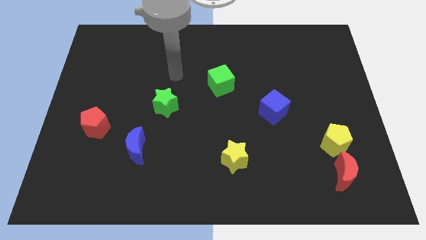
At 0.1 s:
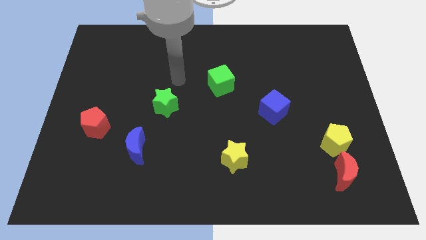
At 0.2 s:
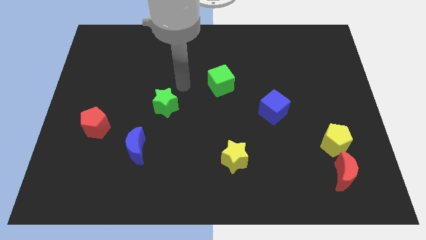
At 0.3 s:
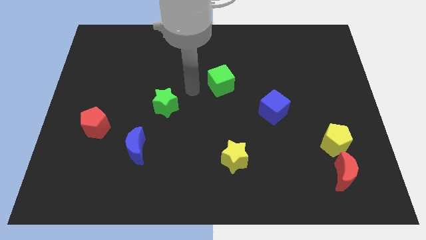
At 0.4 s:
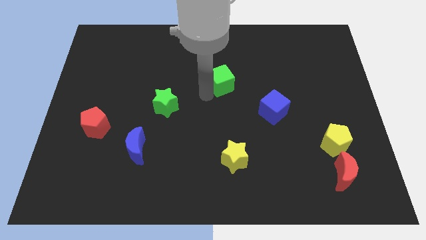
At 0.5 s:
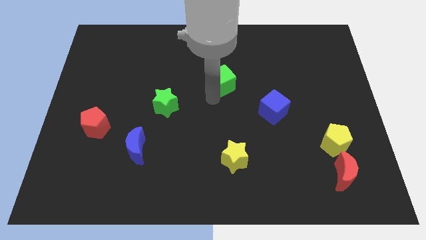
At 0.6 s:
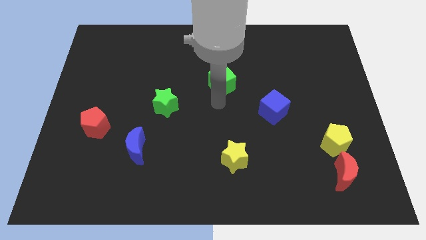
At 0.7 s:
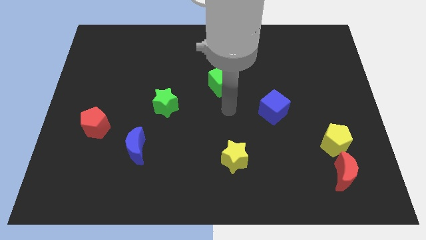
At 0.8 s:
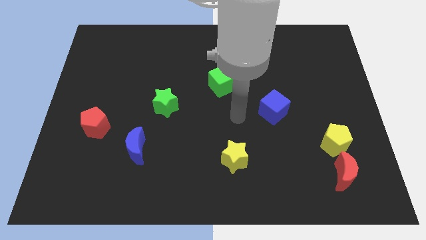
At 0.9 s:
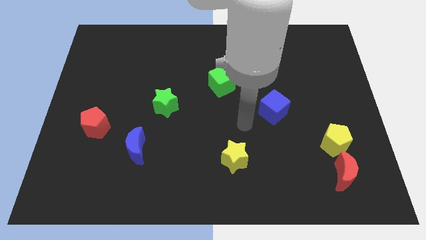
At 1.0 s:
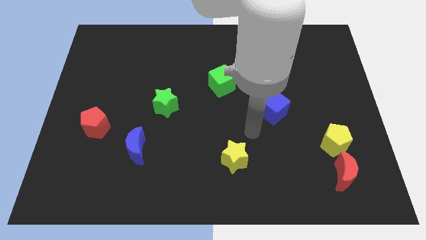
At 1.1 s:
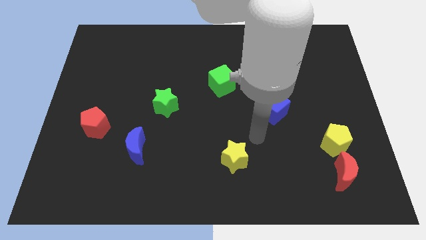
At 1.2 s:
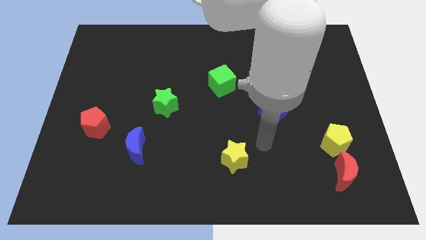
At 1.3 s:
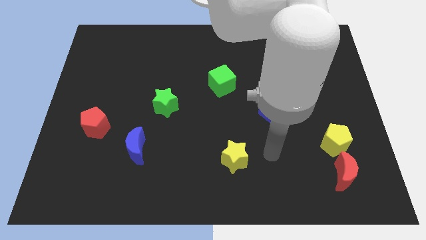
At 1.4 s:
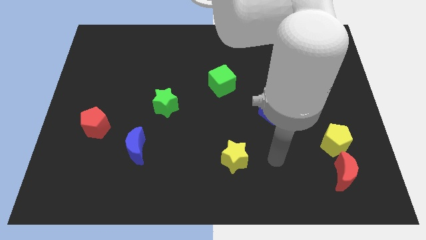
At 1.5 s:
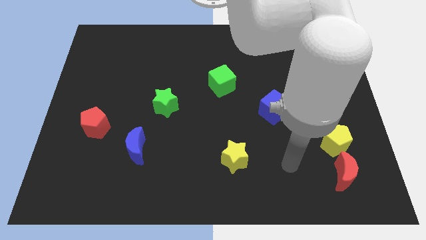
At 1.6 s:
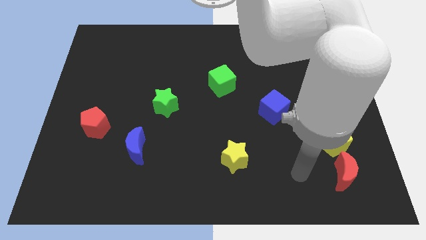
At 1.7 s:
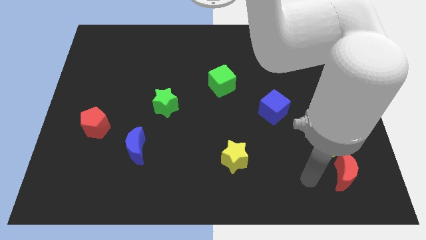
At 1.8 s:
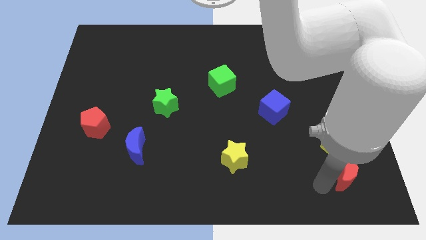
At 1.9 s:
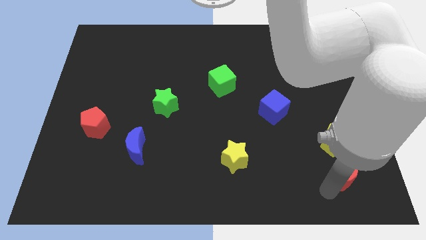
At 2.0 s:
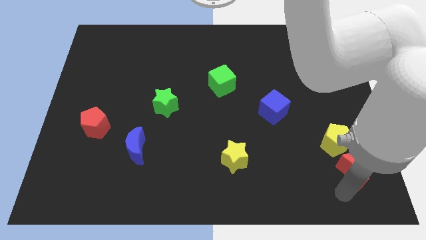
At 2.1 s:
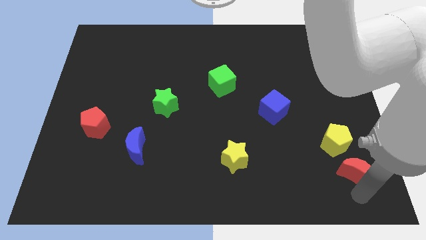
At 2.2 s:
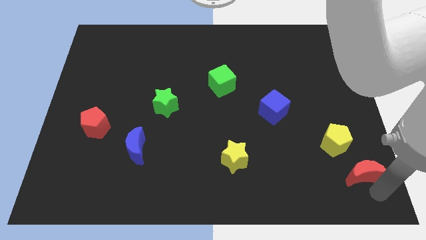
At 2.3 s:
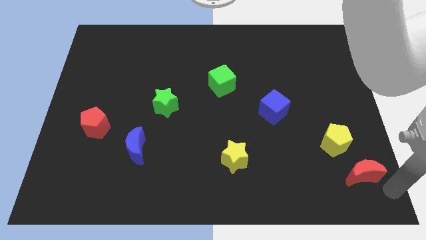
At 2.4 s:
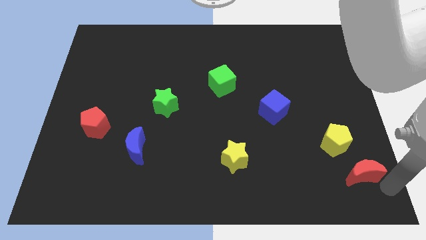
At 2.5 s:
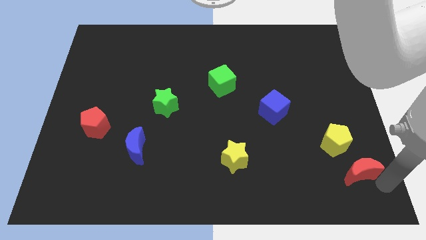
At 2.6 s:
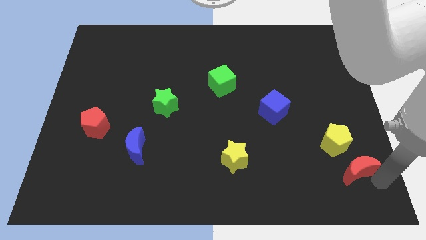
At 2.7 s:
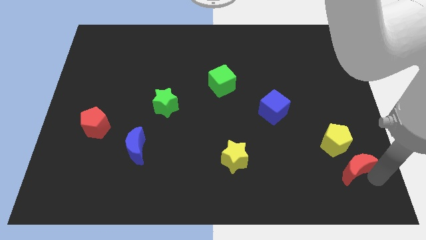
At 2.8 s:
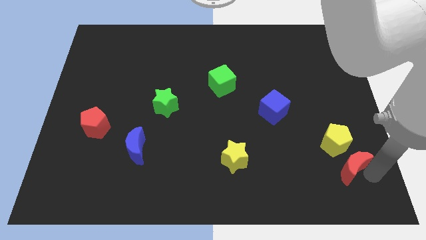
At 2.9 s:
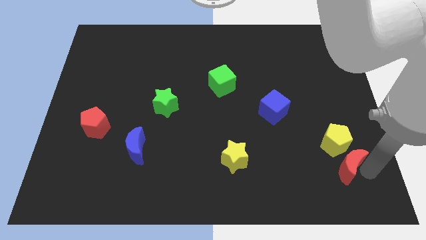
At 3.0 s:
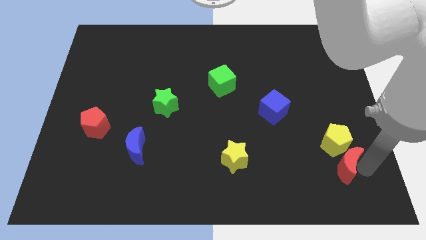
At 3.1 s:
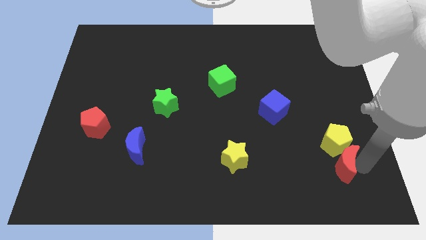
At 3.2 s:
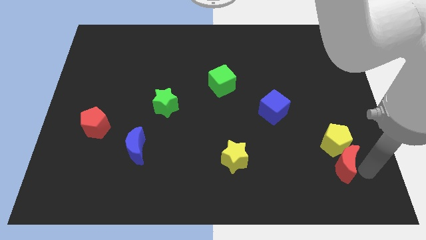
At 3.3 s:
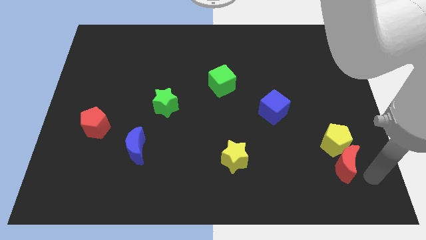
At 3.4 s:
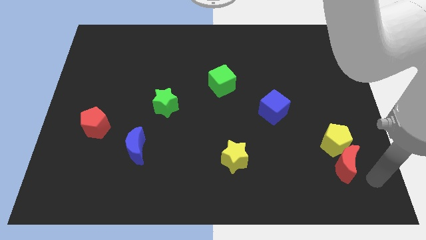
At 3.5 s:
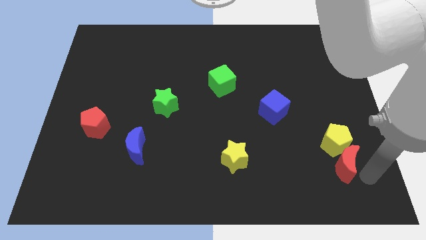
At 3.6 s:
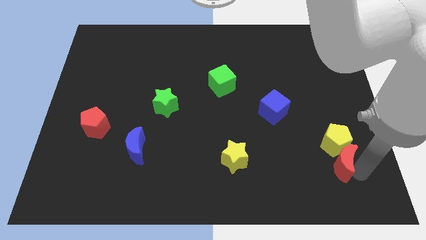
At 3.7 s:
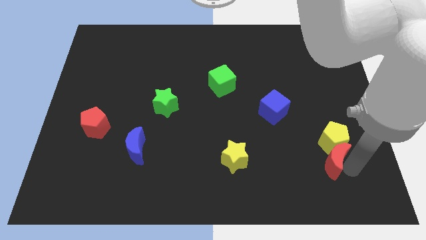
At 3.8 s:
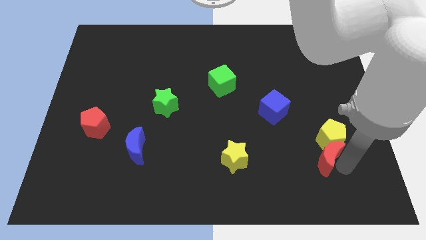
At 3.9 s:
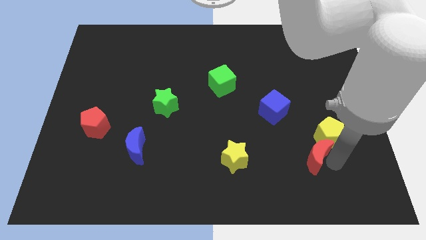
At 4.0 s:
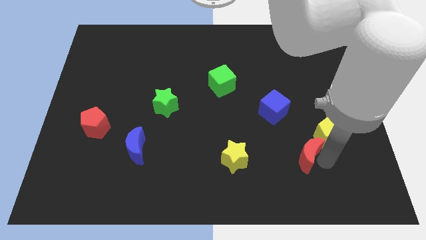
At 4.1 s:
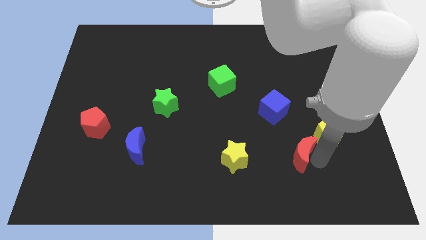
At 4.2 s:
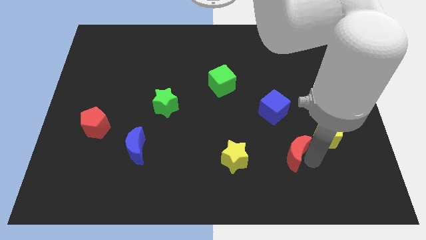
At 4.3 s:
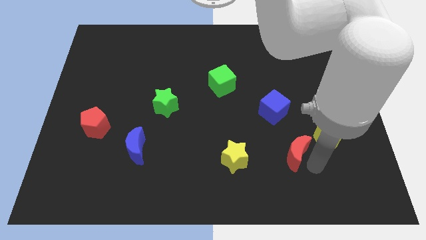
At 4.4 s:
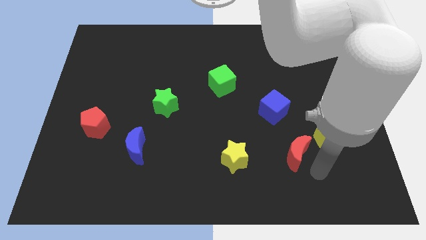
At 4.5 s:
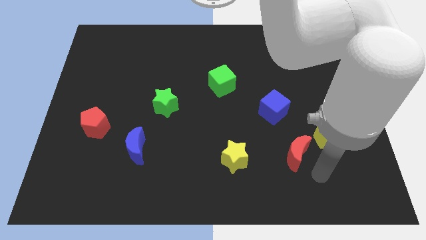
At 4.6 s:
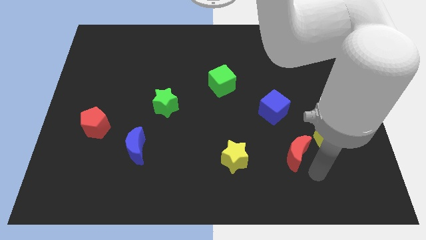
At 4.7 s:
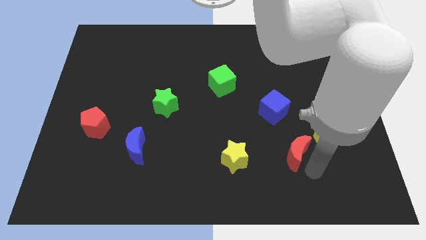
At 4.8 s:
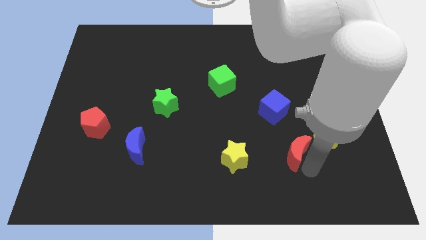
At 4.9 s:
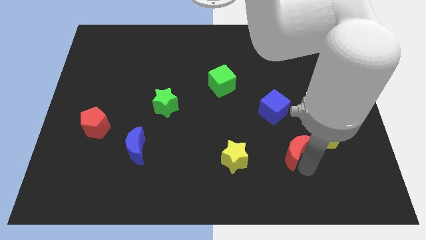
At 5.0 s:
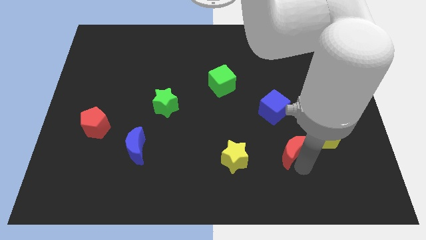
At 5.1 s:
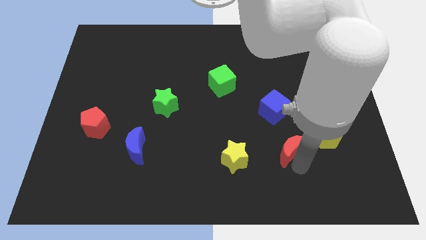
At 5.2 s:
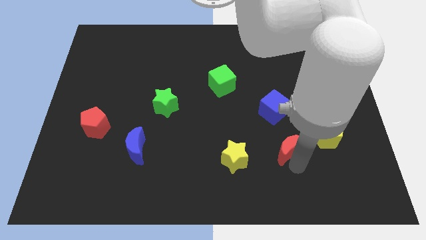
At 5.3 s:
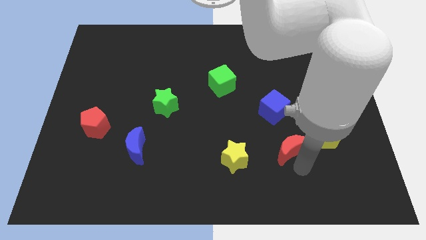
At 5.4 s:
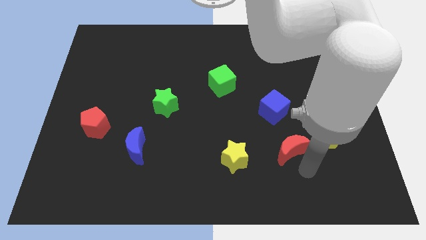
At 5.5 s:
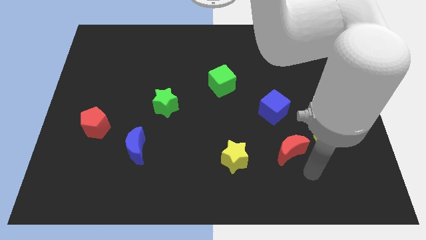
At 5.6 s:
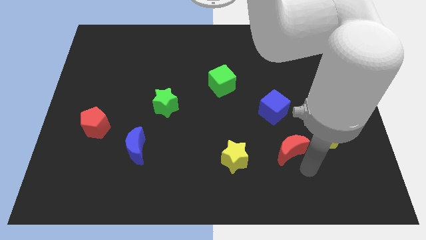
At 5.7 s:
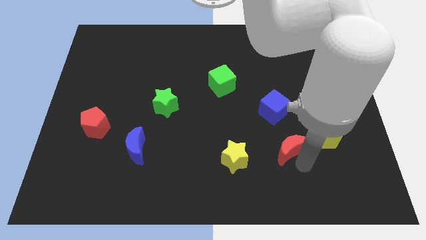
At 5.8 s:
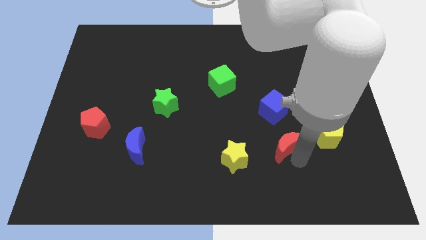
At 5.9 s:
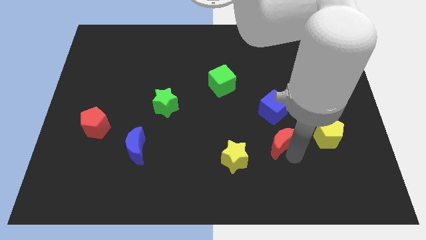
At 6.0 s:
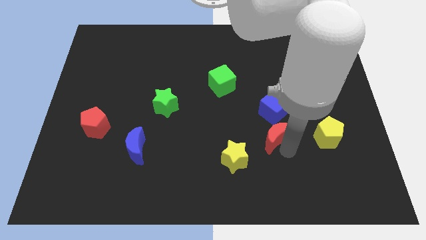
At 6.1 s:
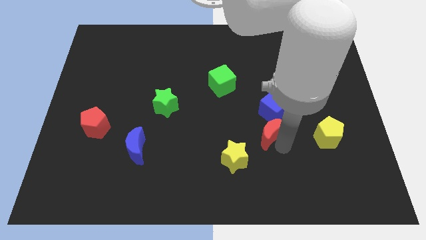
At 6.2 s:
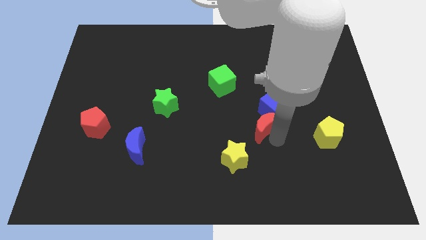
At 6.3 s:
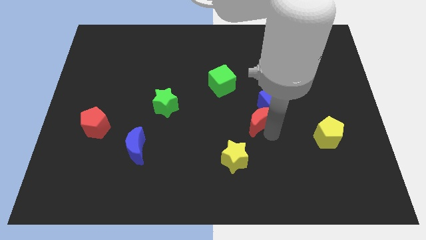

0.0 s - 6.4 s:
move the red moon to the center of the board
